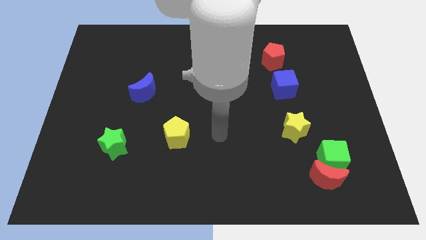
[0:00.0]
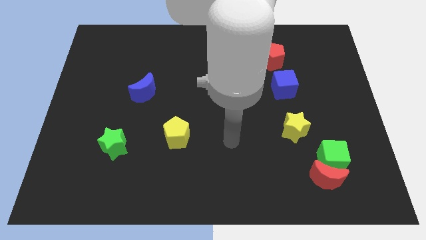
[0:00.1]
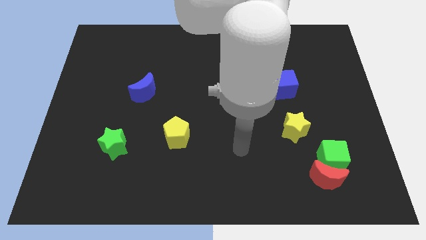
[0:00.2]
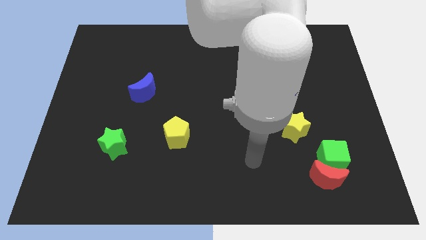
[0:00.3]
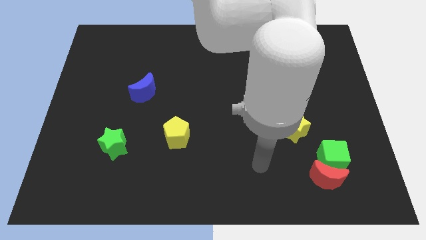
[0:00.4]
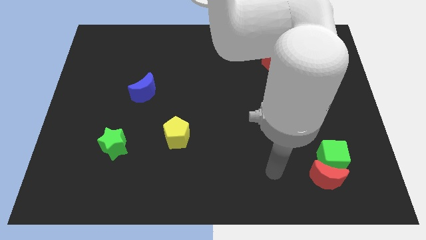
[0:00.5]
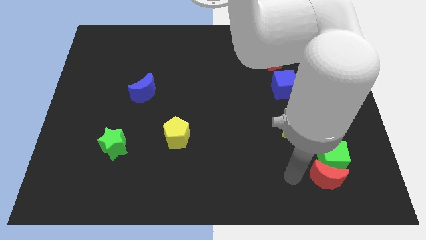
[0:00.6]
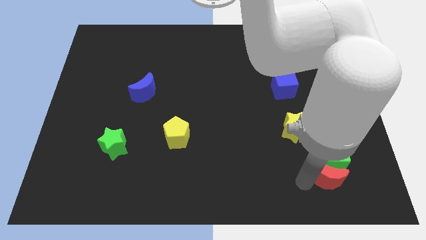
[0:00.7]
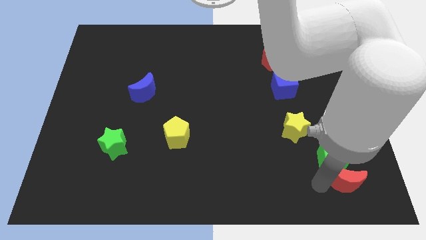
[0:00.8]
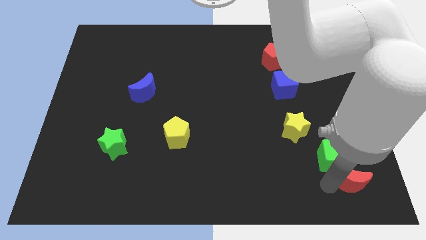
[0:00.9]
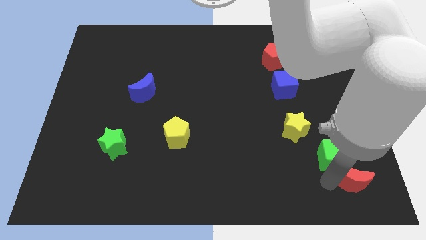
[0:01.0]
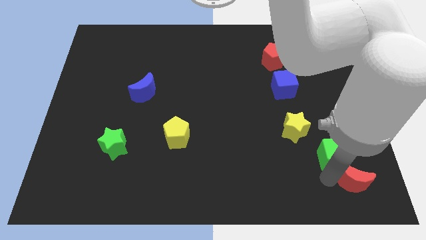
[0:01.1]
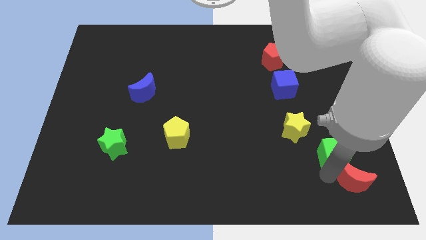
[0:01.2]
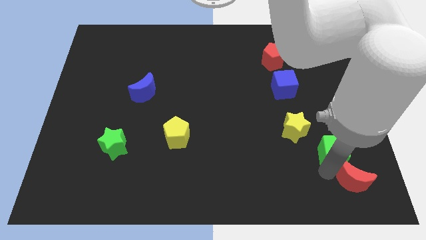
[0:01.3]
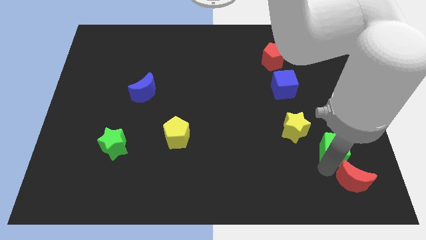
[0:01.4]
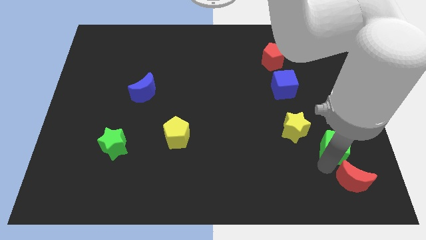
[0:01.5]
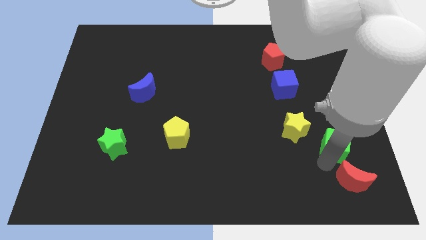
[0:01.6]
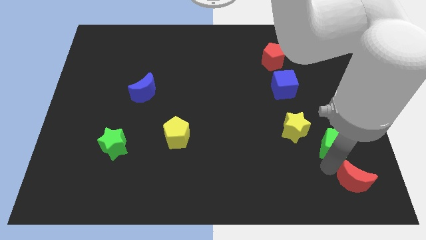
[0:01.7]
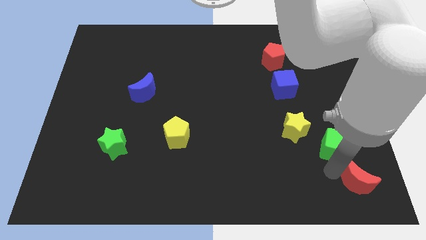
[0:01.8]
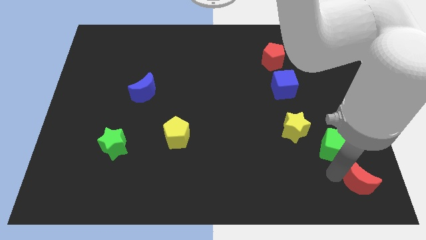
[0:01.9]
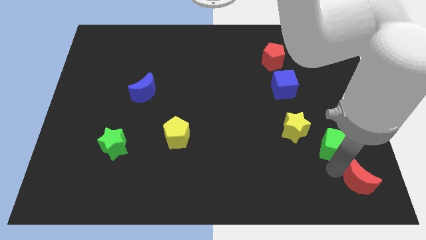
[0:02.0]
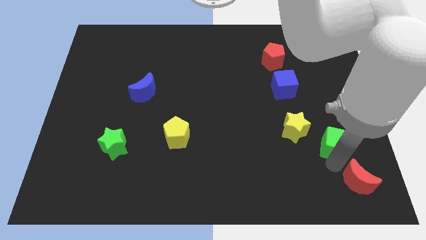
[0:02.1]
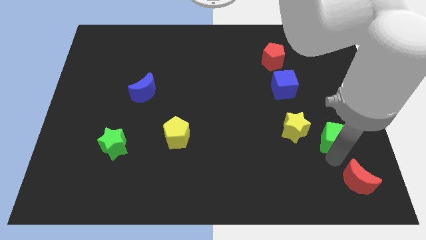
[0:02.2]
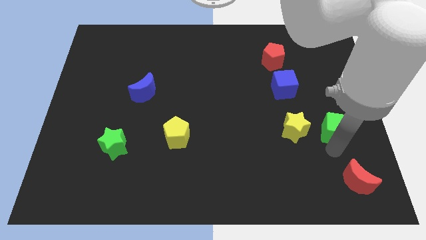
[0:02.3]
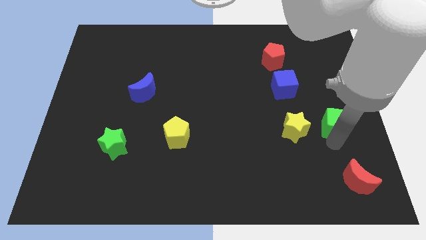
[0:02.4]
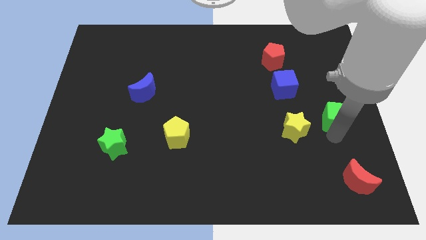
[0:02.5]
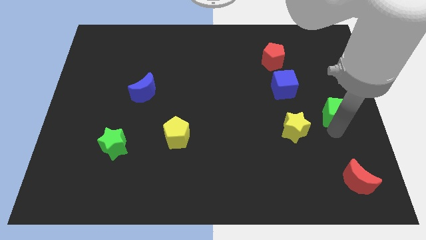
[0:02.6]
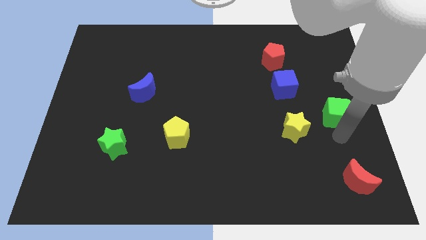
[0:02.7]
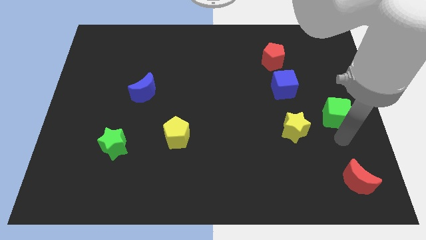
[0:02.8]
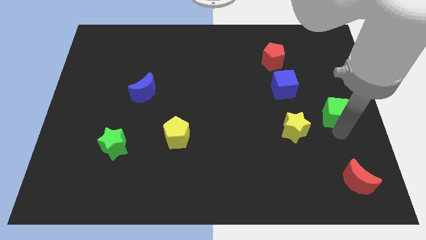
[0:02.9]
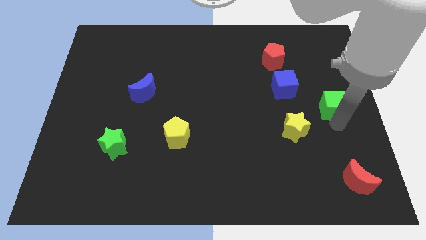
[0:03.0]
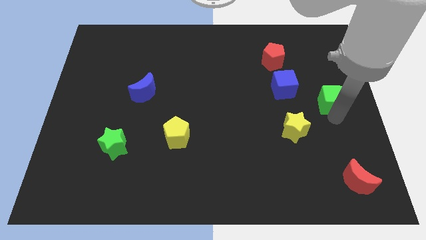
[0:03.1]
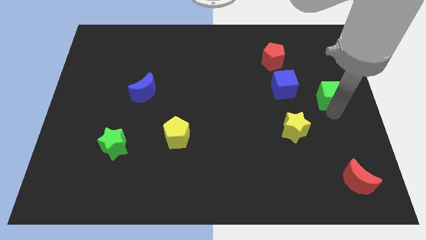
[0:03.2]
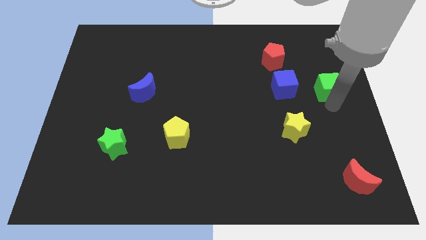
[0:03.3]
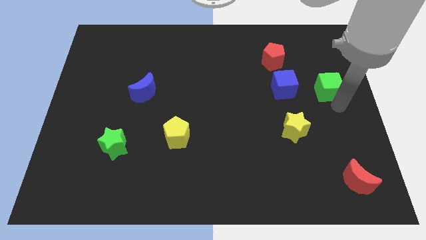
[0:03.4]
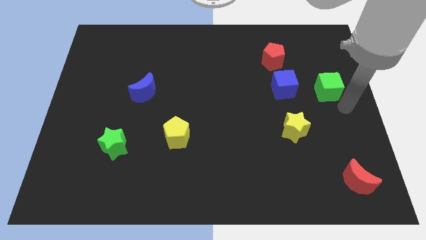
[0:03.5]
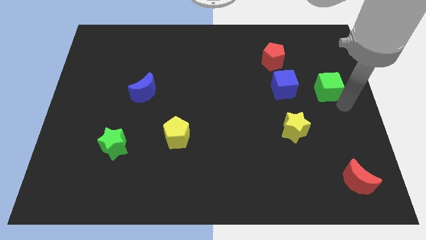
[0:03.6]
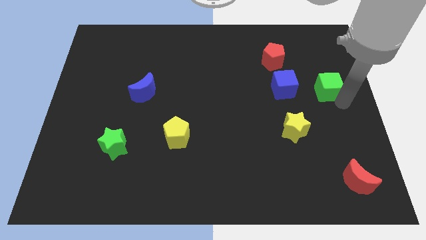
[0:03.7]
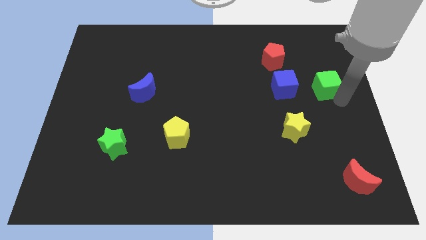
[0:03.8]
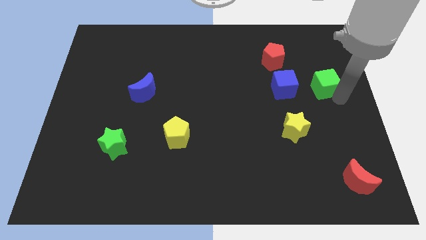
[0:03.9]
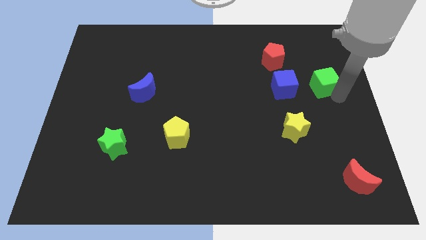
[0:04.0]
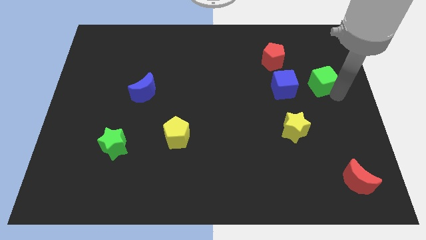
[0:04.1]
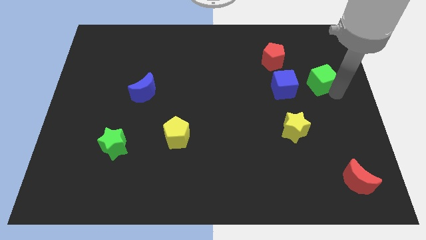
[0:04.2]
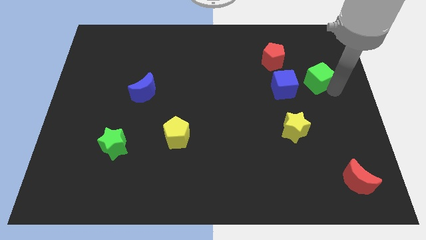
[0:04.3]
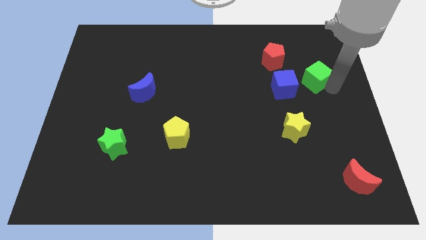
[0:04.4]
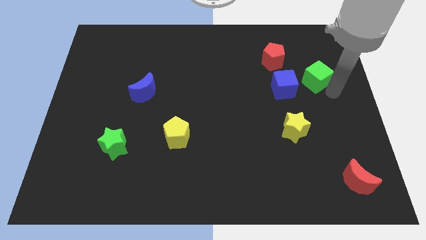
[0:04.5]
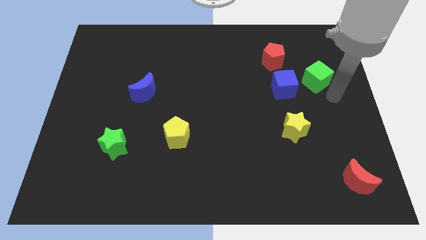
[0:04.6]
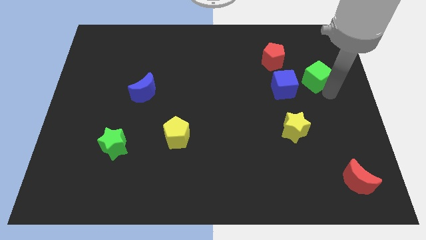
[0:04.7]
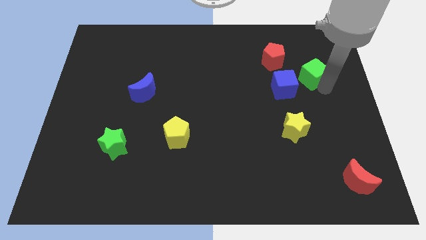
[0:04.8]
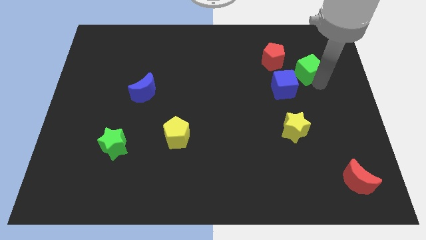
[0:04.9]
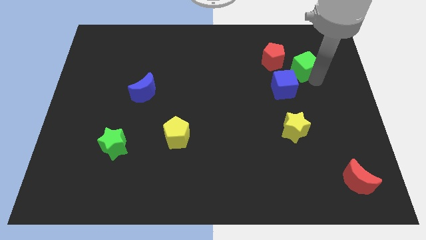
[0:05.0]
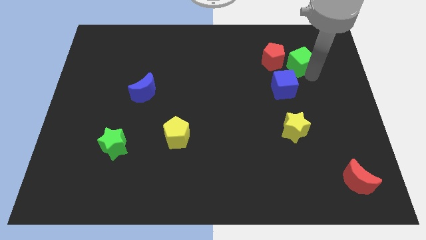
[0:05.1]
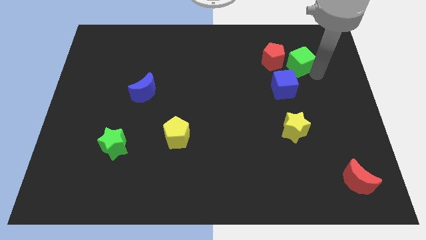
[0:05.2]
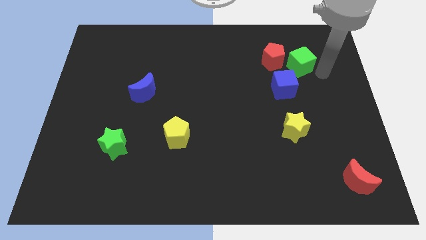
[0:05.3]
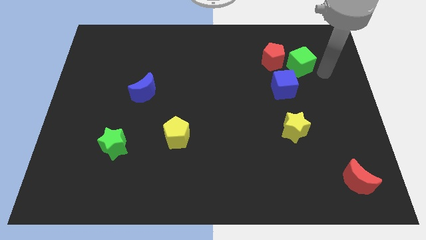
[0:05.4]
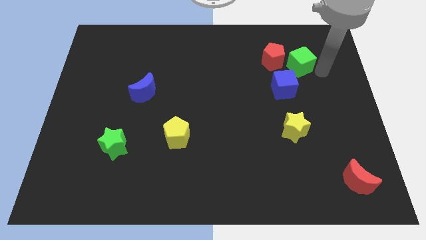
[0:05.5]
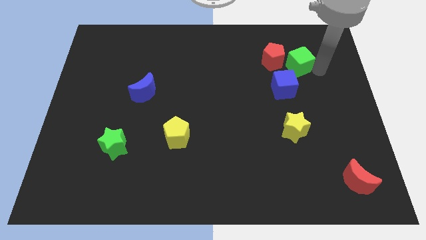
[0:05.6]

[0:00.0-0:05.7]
put the green cube to the top side of the blue cube

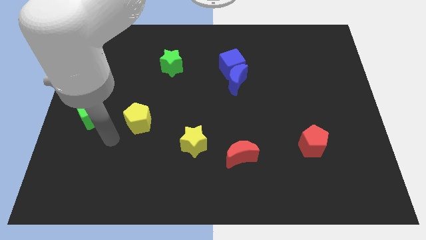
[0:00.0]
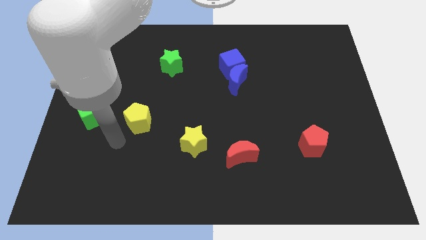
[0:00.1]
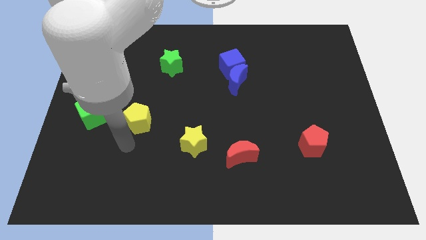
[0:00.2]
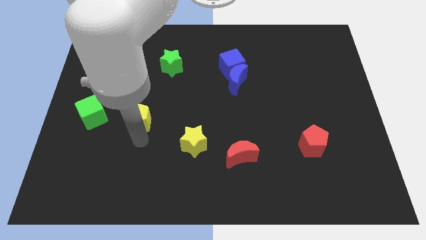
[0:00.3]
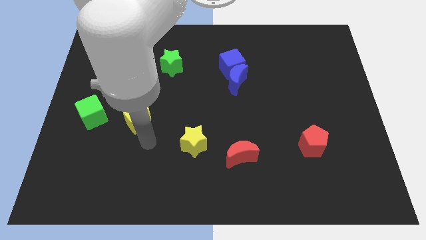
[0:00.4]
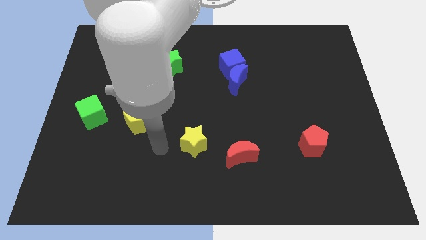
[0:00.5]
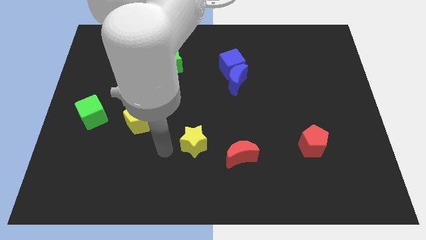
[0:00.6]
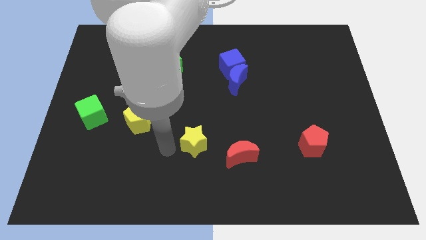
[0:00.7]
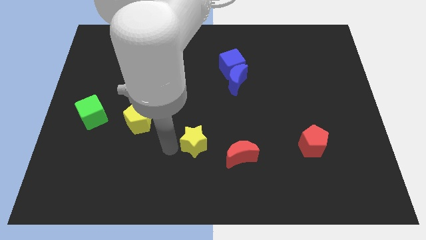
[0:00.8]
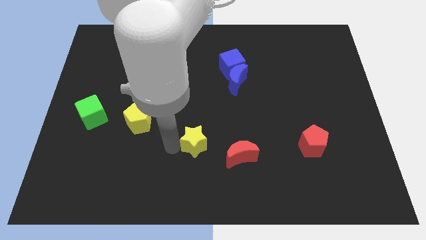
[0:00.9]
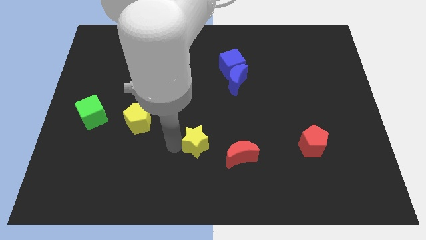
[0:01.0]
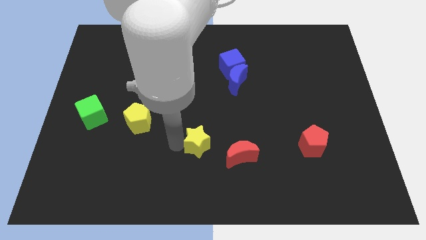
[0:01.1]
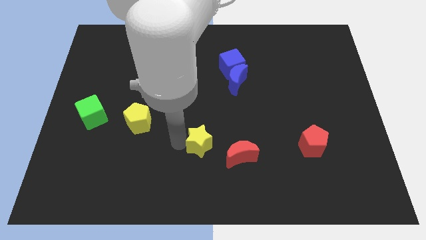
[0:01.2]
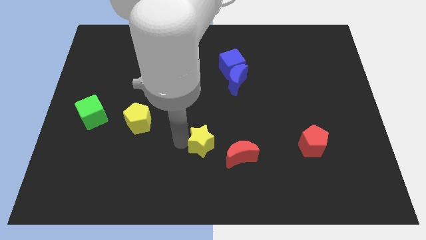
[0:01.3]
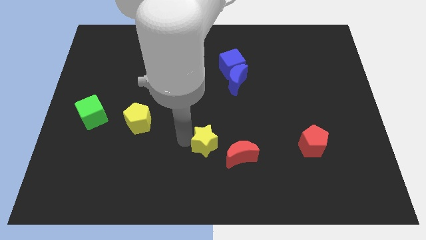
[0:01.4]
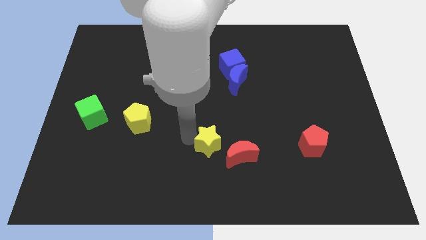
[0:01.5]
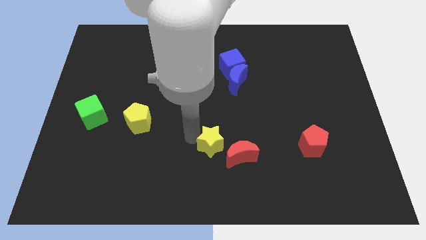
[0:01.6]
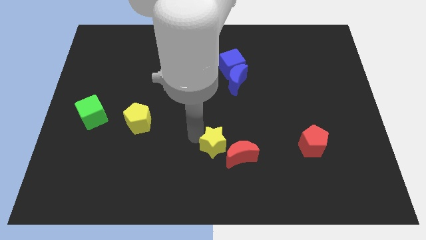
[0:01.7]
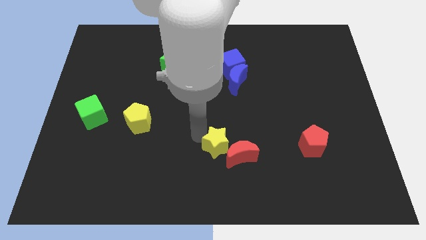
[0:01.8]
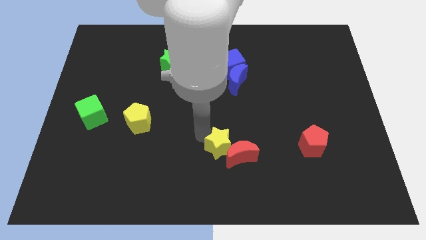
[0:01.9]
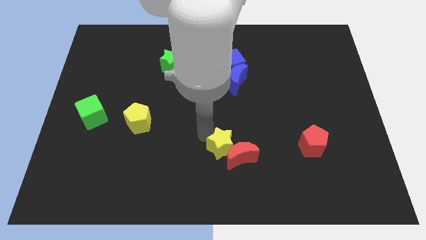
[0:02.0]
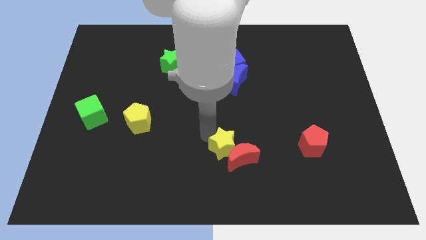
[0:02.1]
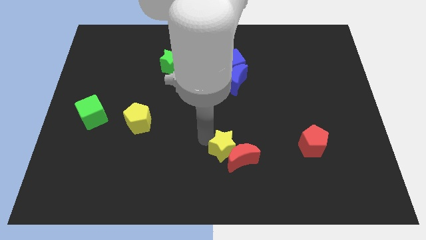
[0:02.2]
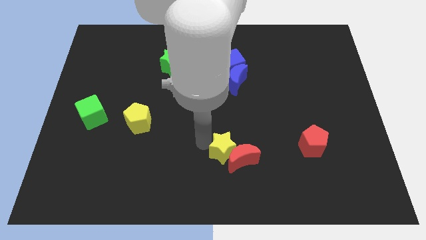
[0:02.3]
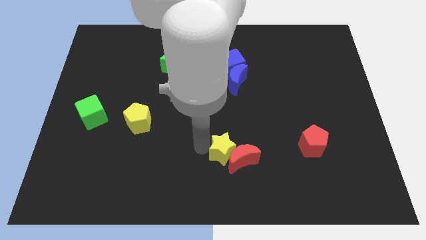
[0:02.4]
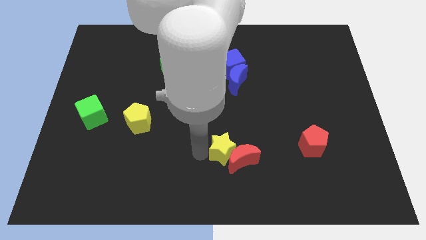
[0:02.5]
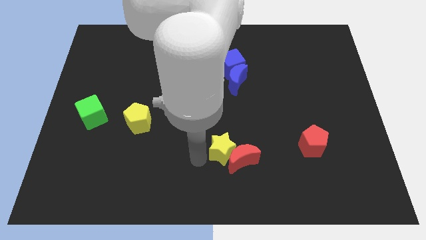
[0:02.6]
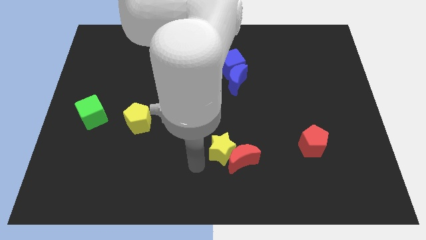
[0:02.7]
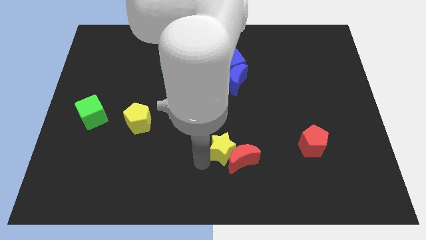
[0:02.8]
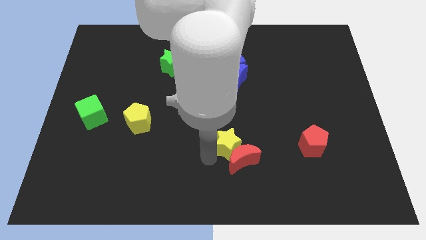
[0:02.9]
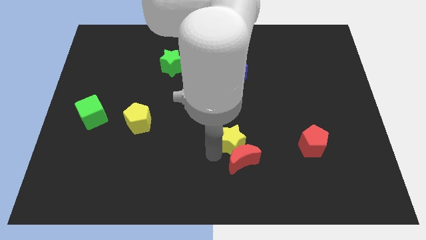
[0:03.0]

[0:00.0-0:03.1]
push the yellow star diagonally up and to the right of the red moon
